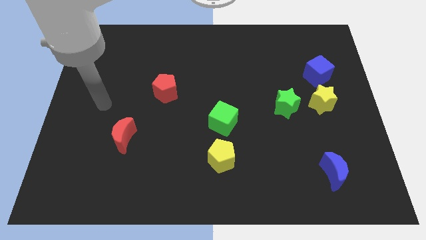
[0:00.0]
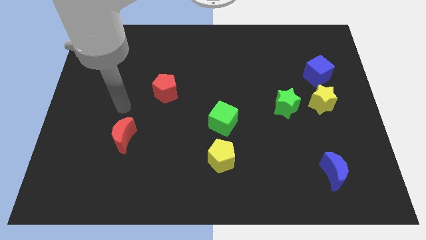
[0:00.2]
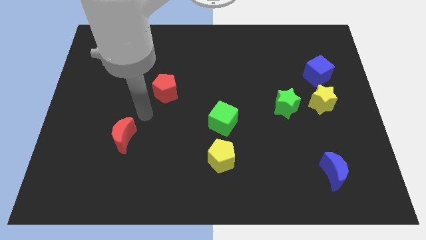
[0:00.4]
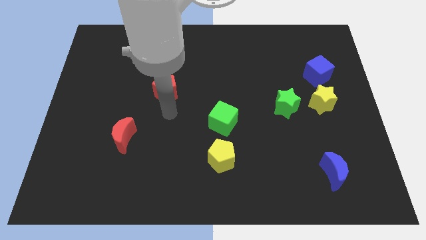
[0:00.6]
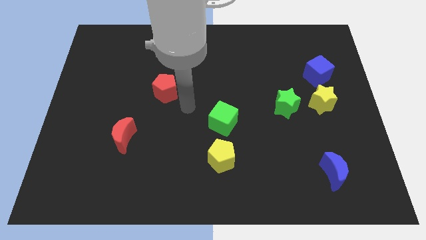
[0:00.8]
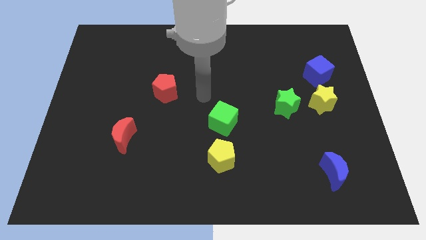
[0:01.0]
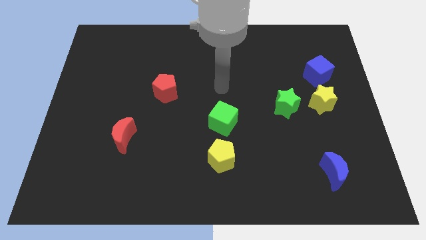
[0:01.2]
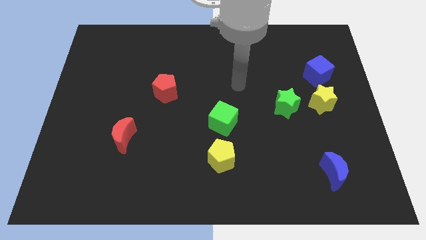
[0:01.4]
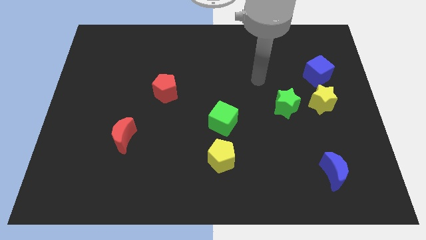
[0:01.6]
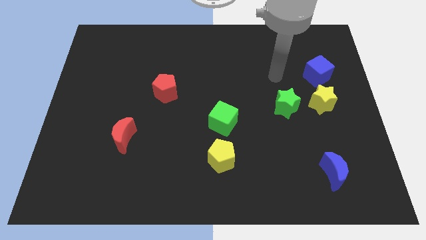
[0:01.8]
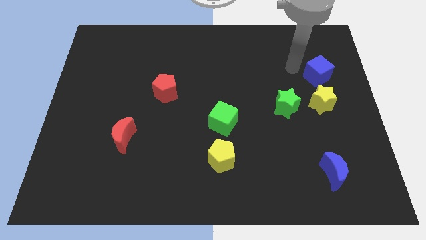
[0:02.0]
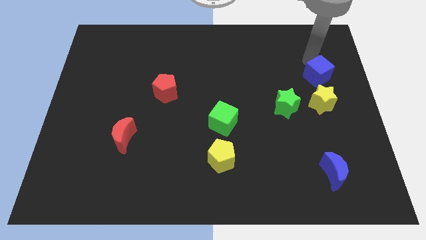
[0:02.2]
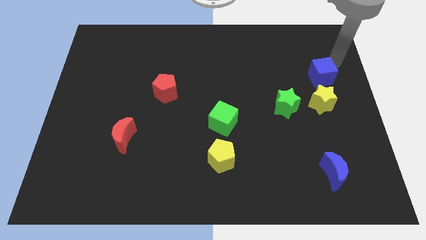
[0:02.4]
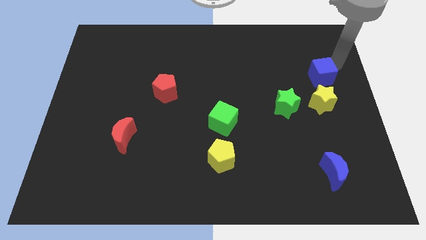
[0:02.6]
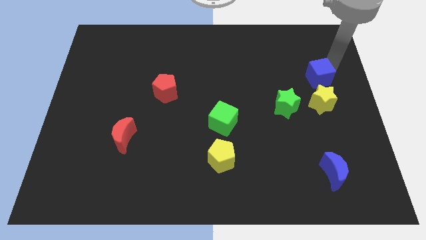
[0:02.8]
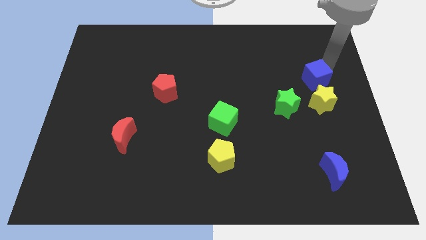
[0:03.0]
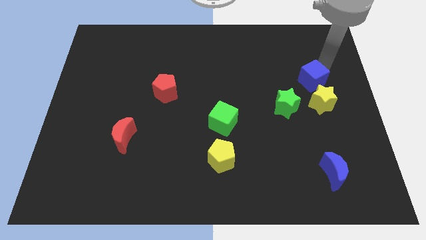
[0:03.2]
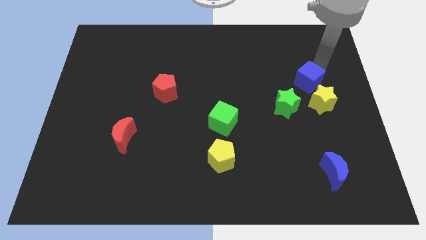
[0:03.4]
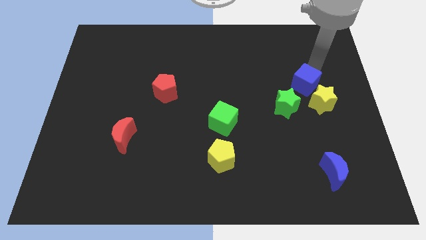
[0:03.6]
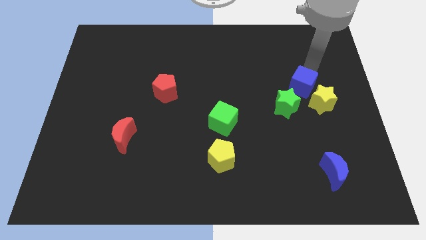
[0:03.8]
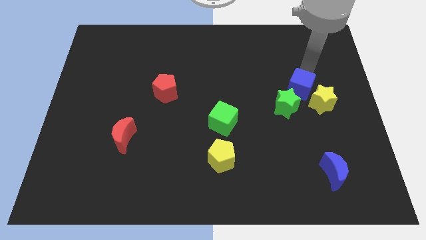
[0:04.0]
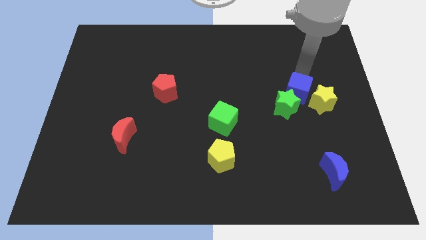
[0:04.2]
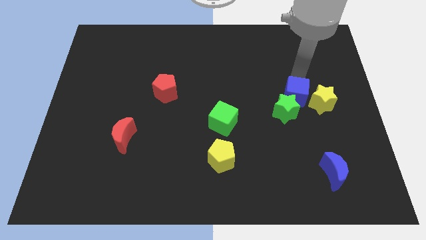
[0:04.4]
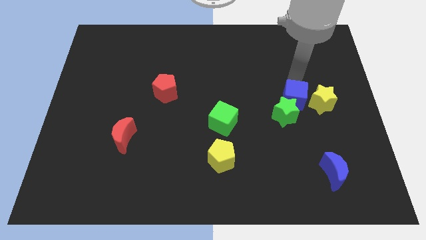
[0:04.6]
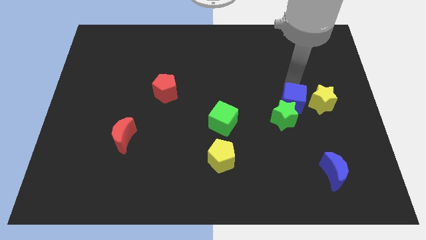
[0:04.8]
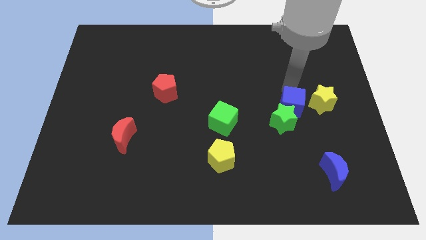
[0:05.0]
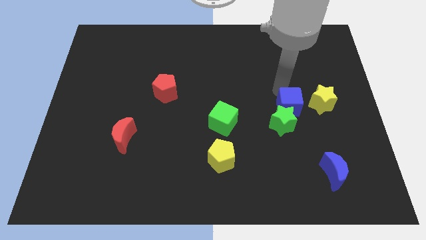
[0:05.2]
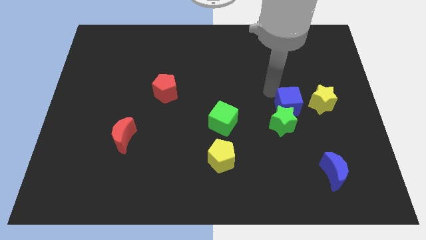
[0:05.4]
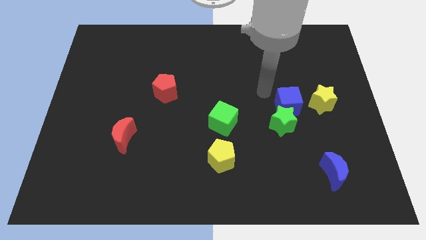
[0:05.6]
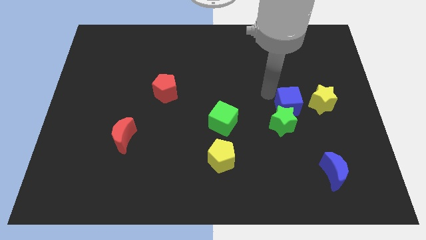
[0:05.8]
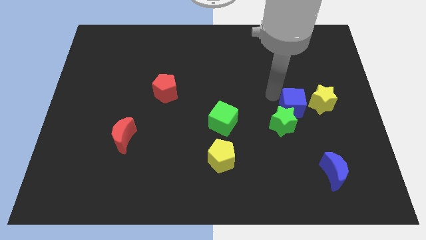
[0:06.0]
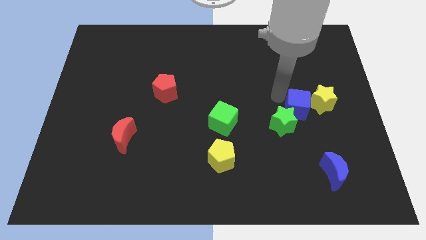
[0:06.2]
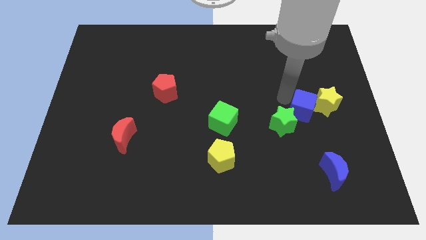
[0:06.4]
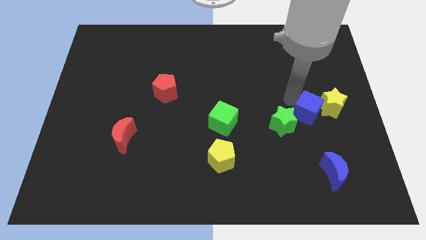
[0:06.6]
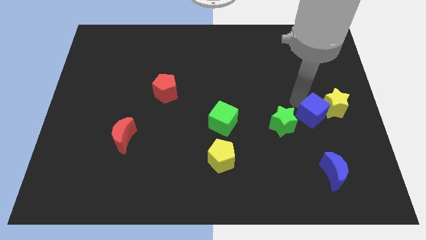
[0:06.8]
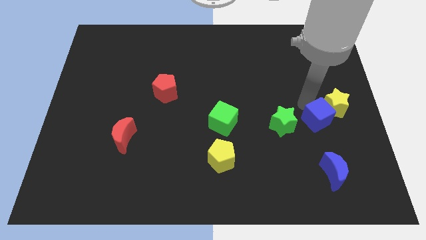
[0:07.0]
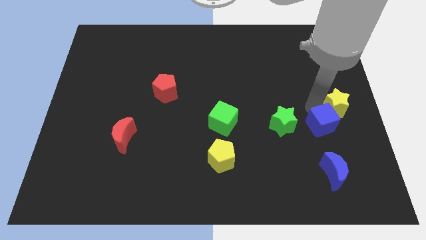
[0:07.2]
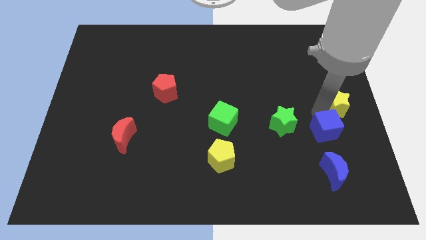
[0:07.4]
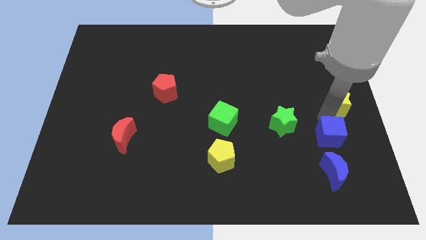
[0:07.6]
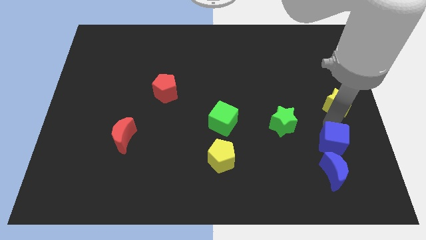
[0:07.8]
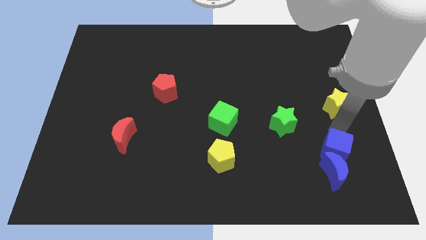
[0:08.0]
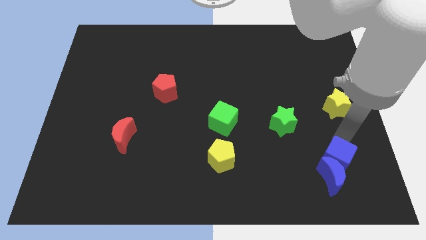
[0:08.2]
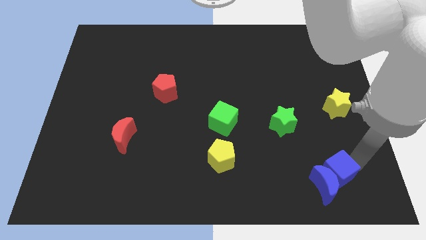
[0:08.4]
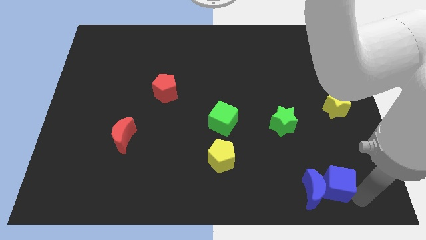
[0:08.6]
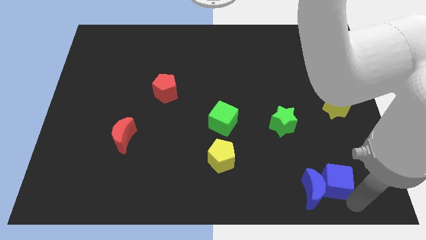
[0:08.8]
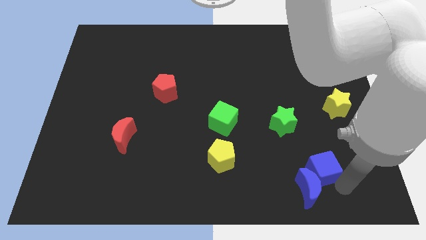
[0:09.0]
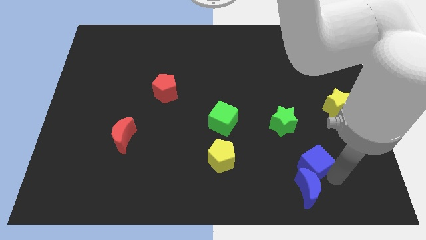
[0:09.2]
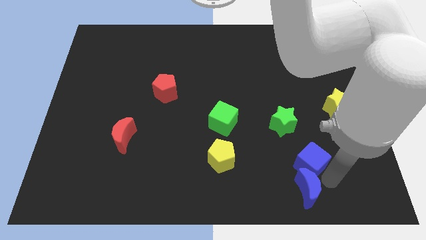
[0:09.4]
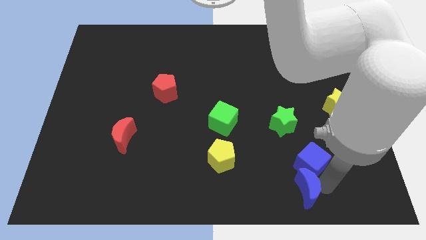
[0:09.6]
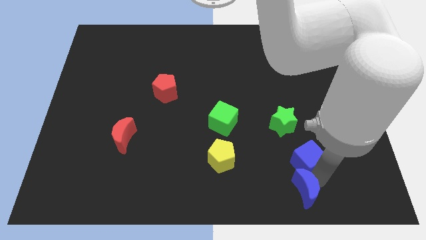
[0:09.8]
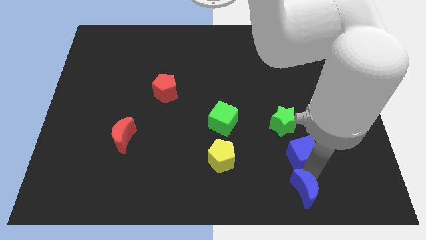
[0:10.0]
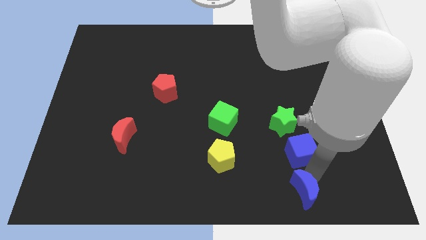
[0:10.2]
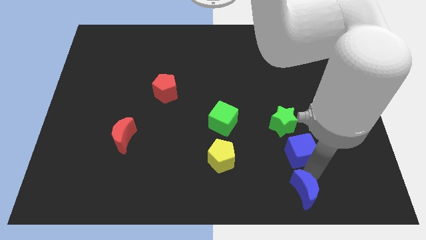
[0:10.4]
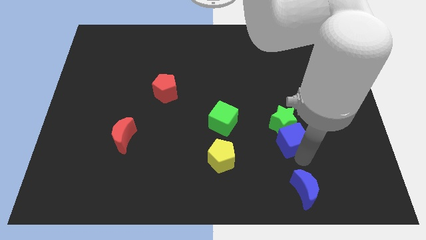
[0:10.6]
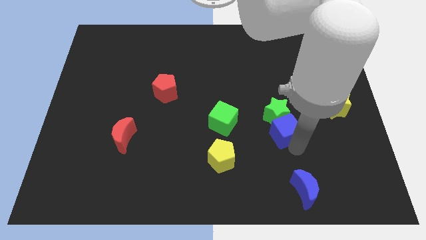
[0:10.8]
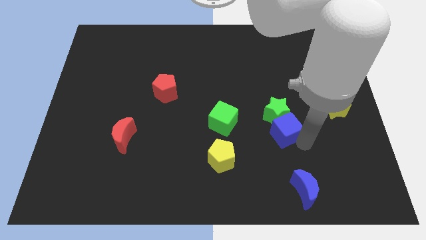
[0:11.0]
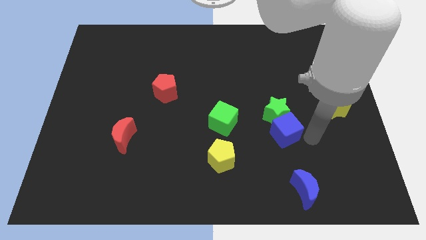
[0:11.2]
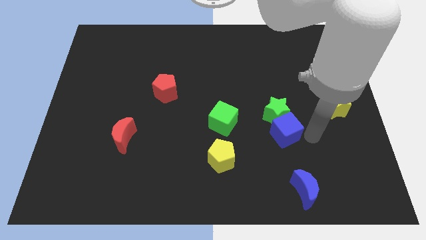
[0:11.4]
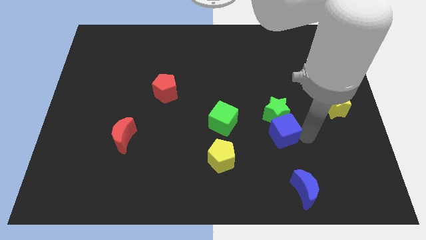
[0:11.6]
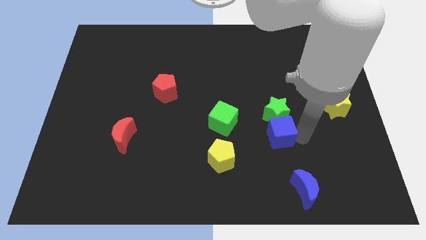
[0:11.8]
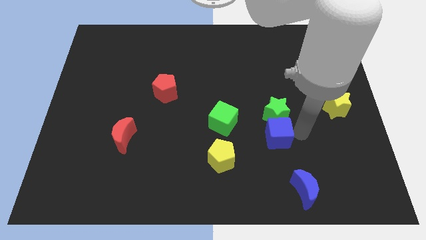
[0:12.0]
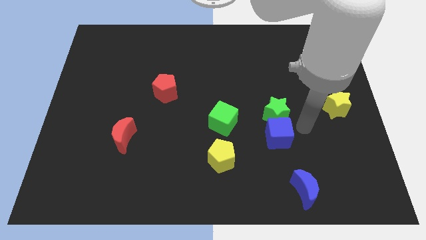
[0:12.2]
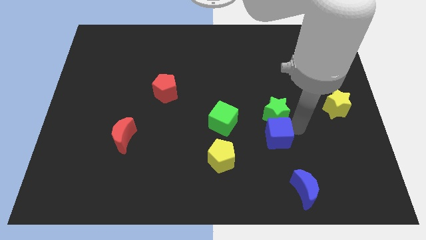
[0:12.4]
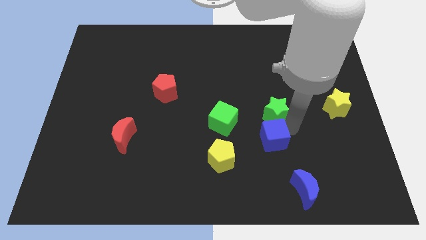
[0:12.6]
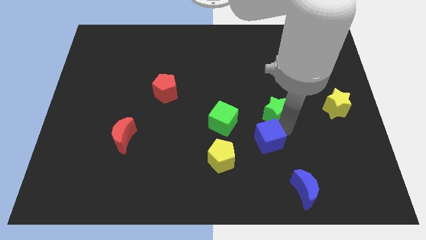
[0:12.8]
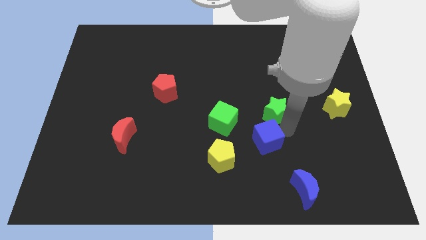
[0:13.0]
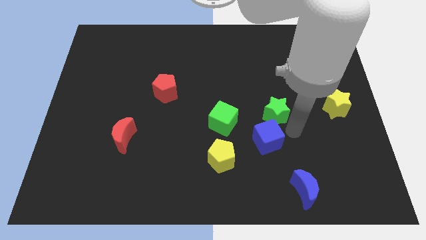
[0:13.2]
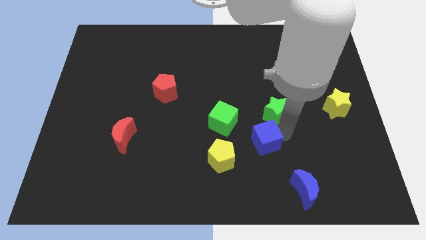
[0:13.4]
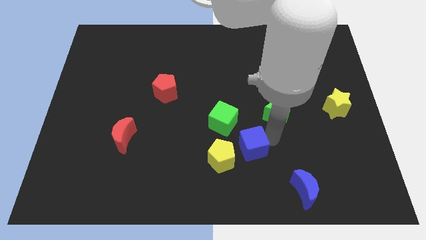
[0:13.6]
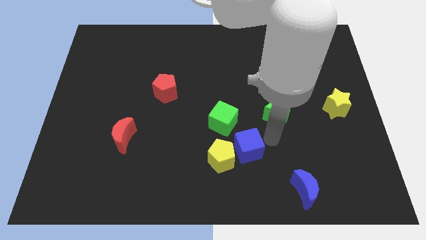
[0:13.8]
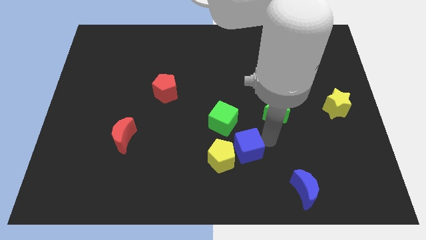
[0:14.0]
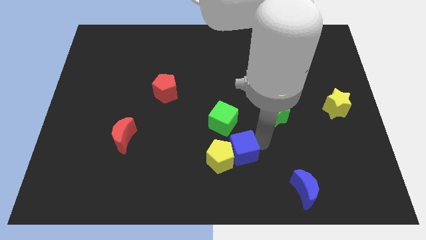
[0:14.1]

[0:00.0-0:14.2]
put the blue cube to the yellow pentagon
